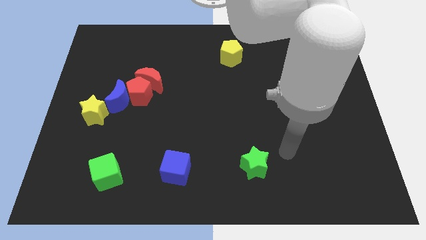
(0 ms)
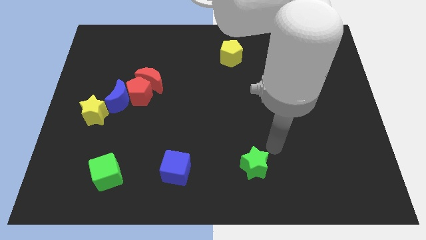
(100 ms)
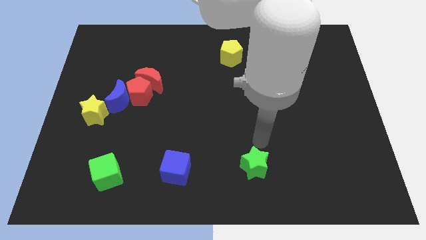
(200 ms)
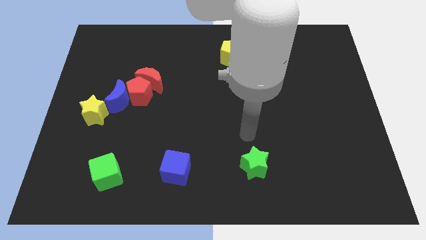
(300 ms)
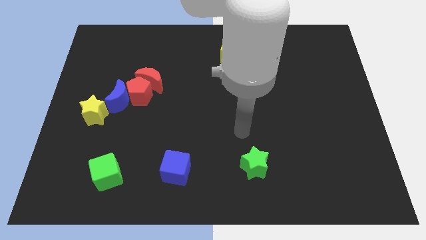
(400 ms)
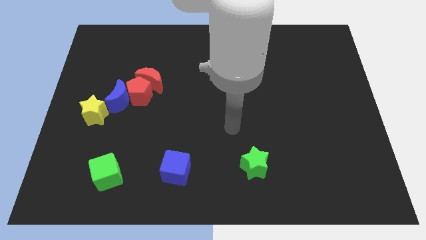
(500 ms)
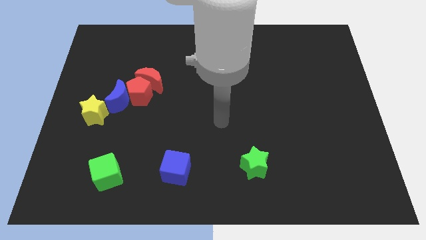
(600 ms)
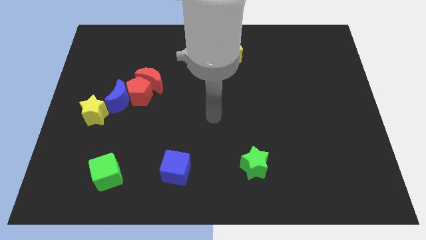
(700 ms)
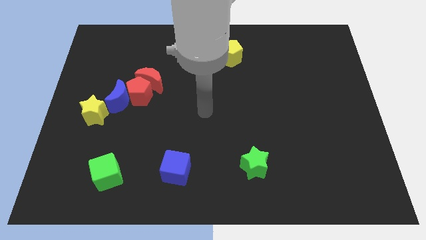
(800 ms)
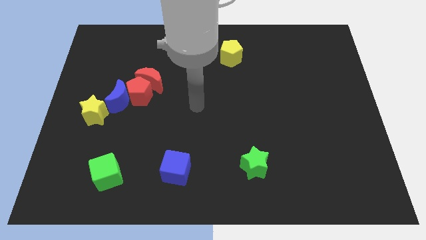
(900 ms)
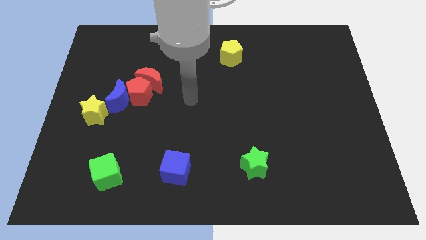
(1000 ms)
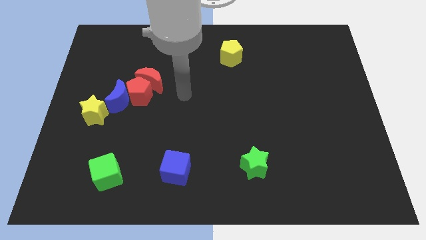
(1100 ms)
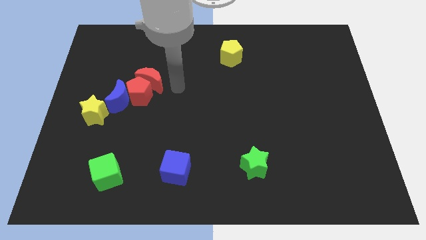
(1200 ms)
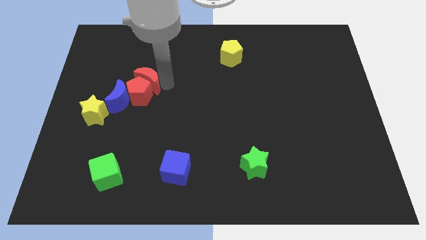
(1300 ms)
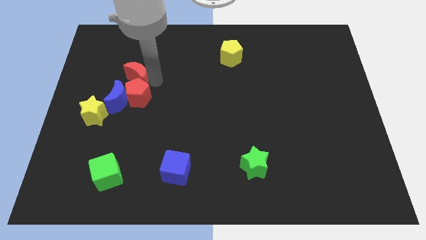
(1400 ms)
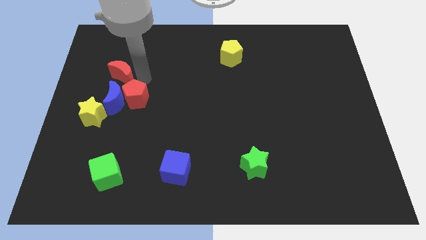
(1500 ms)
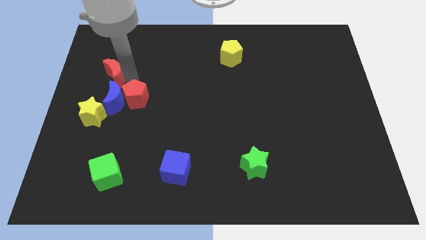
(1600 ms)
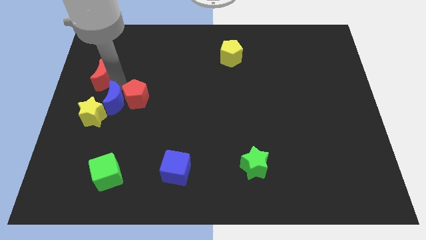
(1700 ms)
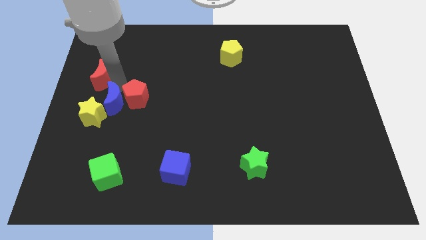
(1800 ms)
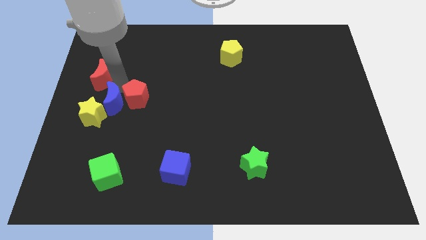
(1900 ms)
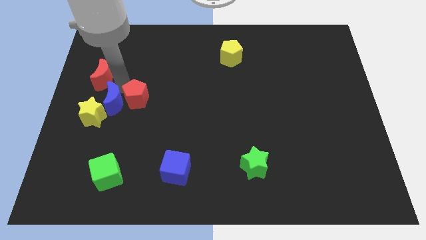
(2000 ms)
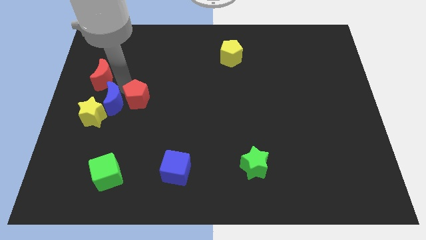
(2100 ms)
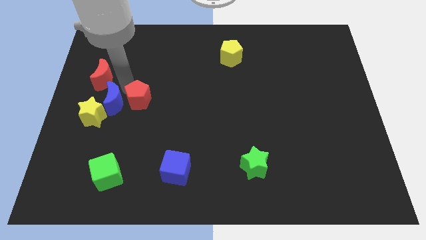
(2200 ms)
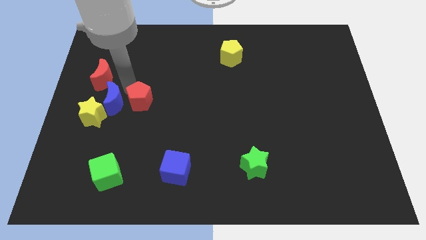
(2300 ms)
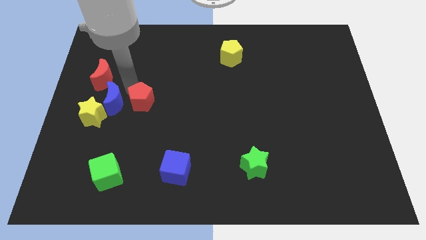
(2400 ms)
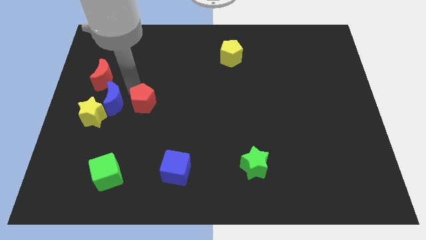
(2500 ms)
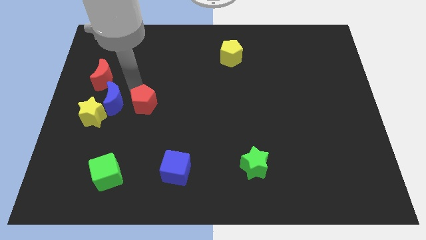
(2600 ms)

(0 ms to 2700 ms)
separate the red pentagon from the blue moon and red moon

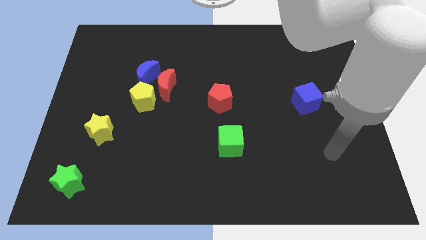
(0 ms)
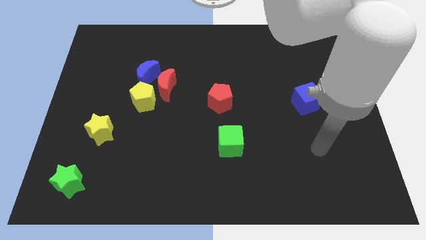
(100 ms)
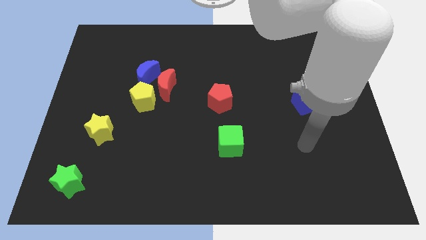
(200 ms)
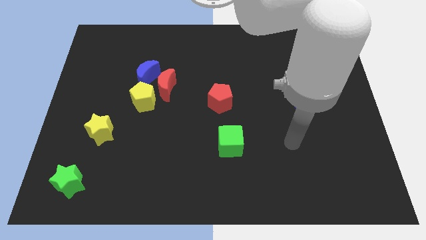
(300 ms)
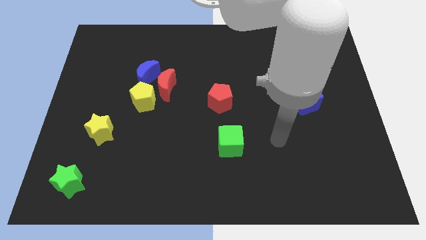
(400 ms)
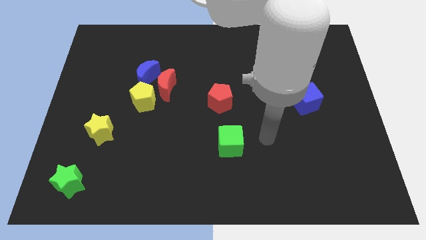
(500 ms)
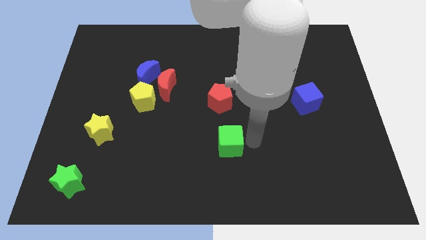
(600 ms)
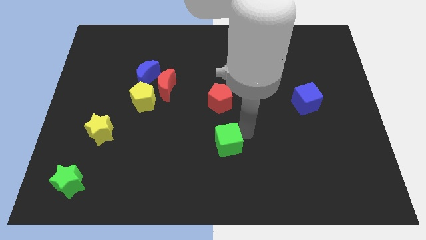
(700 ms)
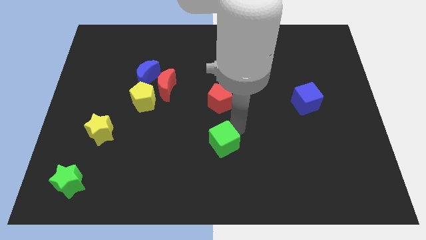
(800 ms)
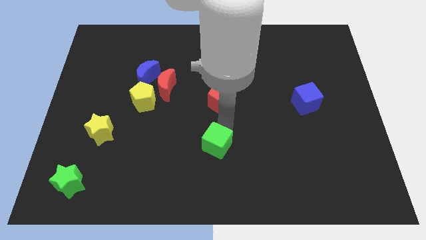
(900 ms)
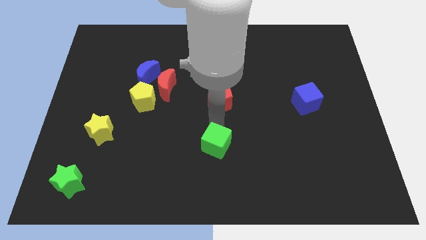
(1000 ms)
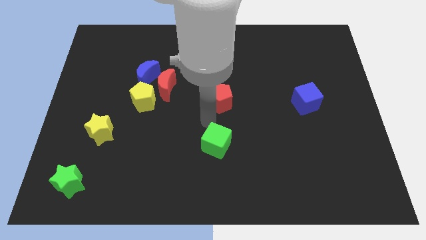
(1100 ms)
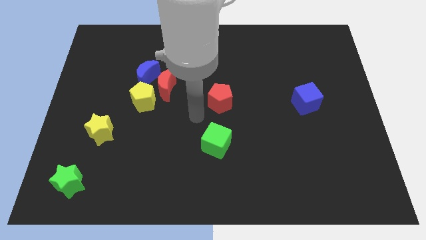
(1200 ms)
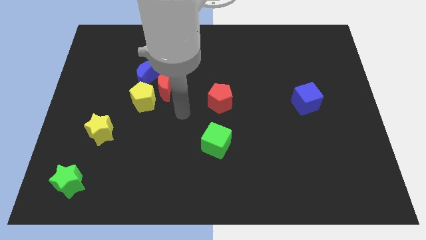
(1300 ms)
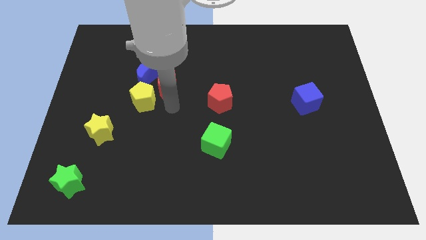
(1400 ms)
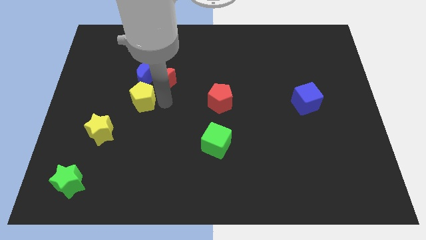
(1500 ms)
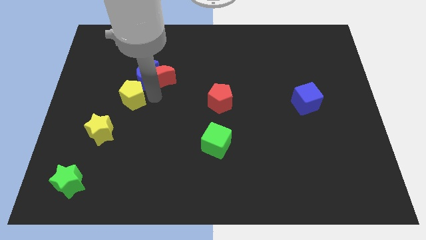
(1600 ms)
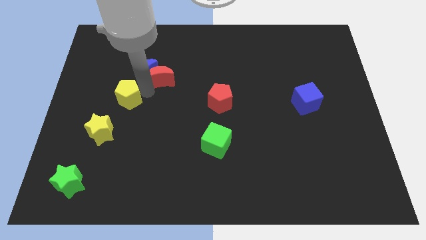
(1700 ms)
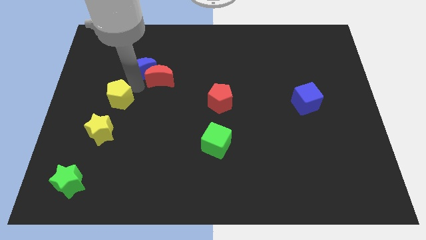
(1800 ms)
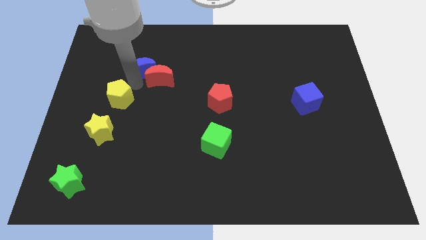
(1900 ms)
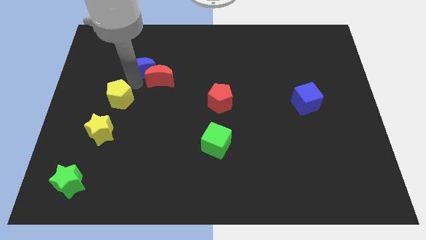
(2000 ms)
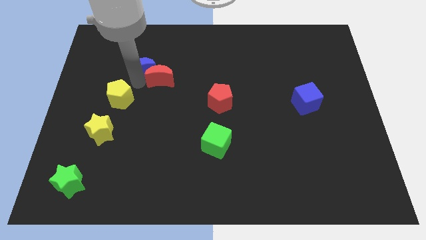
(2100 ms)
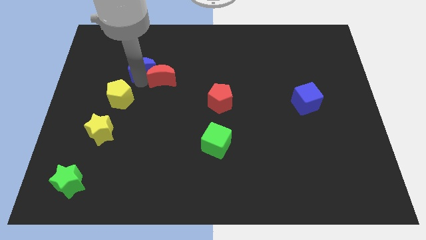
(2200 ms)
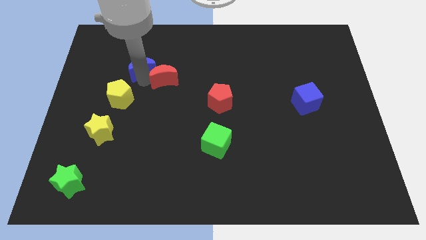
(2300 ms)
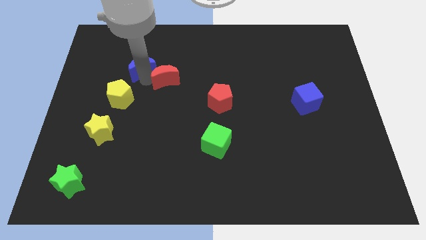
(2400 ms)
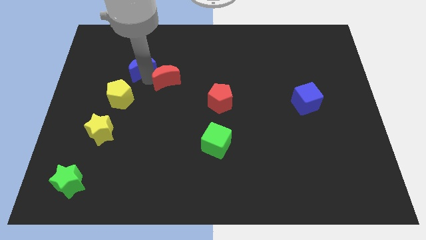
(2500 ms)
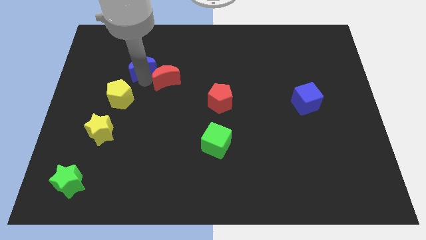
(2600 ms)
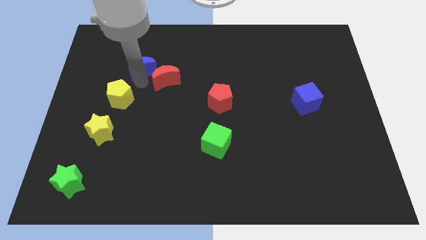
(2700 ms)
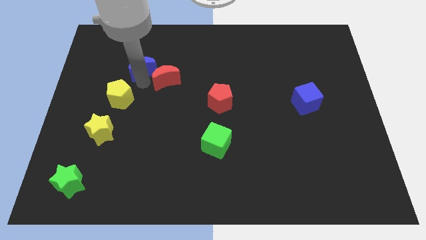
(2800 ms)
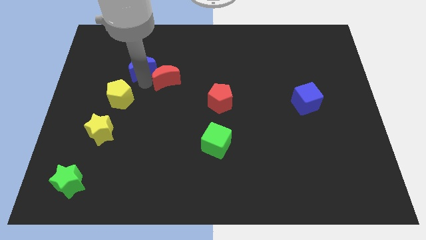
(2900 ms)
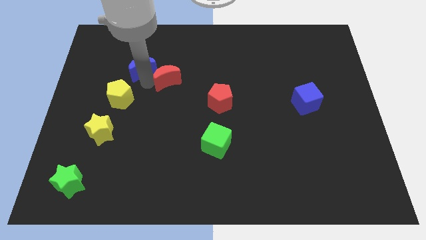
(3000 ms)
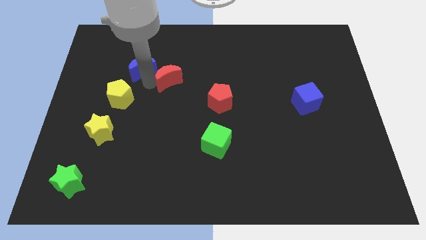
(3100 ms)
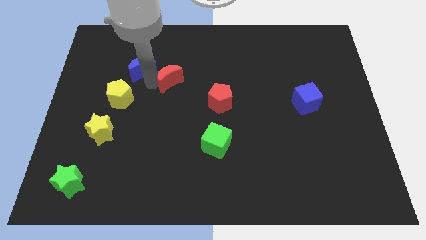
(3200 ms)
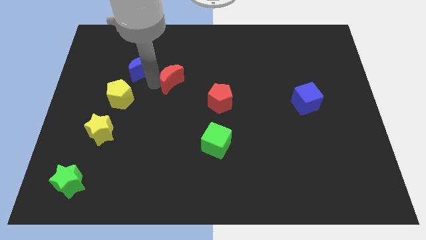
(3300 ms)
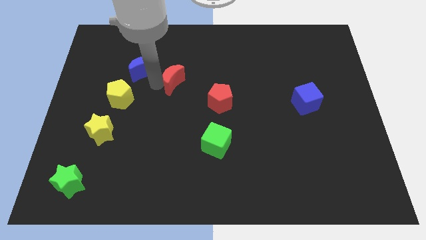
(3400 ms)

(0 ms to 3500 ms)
separate the red moon from the blue moon and yellow pentagon

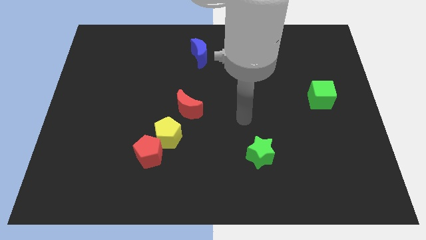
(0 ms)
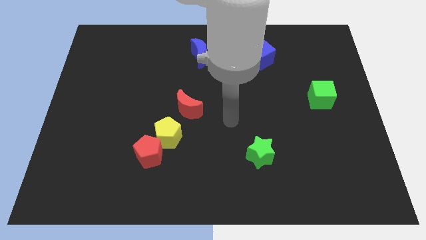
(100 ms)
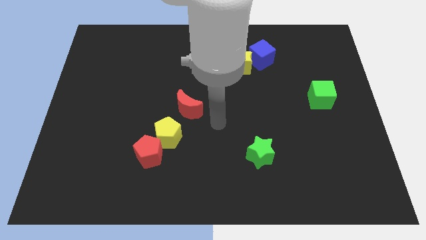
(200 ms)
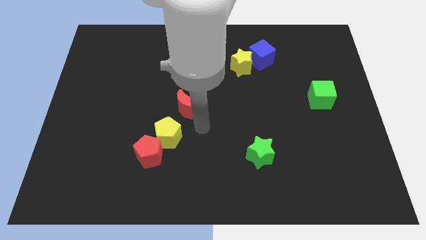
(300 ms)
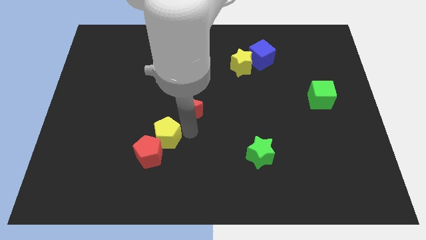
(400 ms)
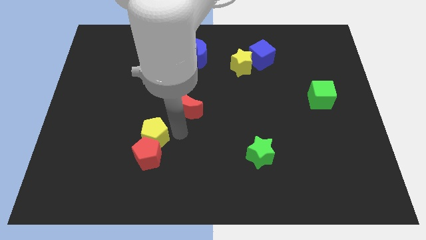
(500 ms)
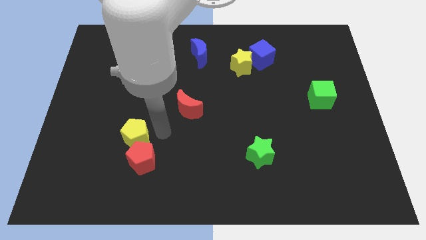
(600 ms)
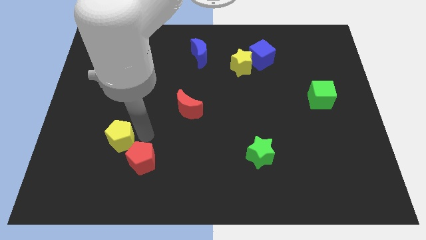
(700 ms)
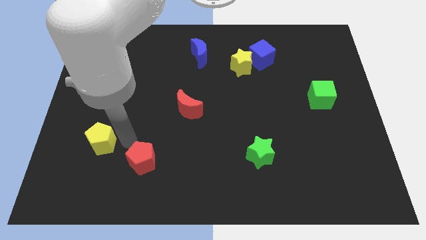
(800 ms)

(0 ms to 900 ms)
pull the red pentagon apart from the yellow pentagon

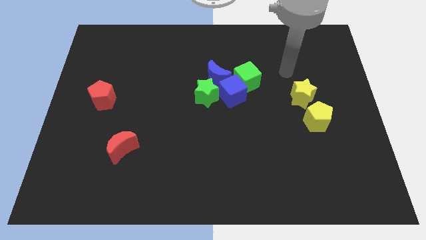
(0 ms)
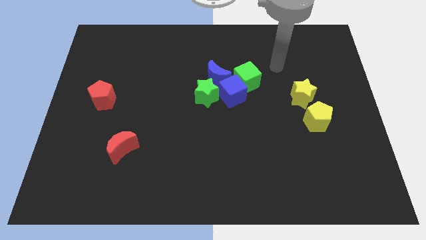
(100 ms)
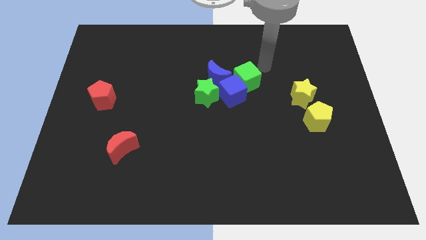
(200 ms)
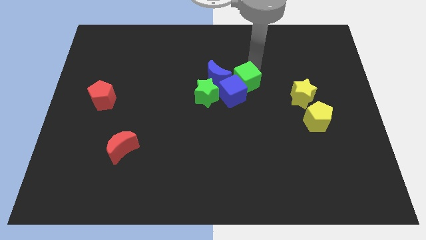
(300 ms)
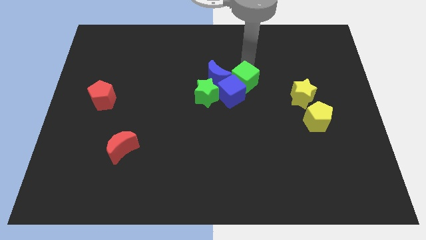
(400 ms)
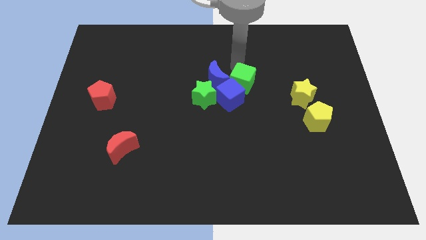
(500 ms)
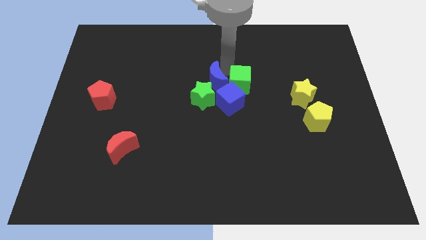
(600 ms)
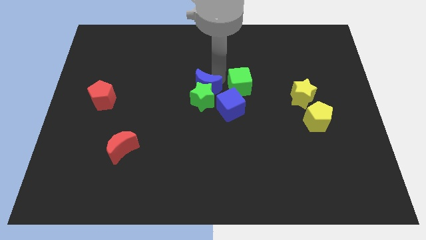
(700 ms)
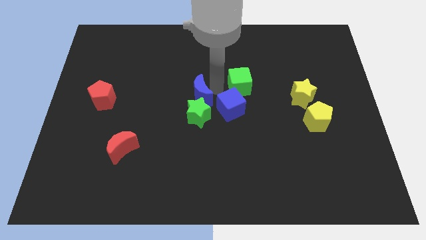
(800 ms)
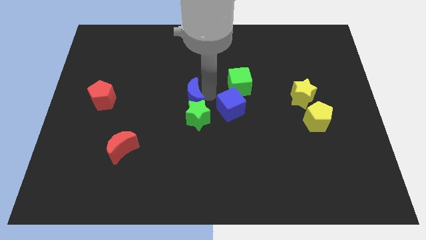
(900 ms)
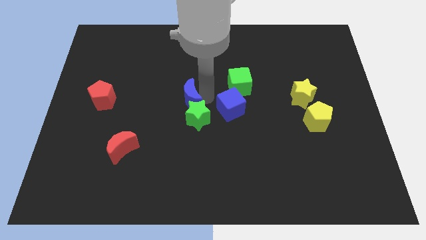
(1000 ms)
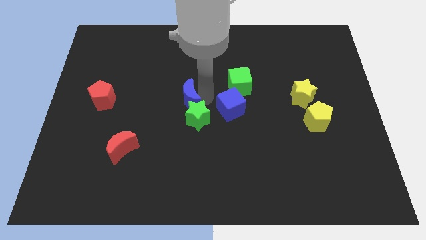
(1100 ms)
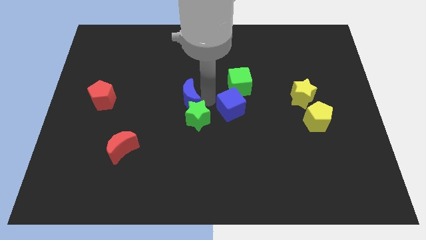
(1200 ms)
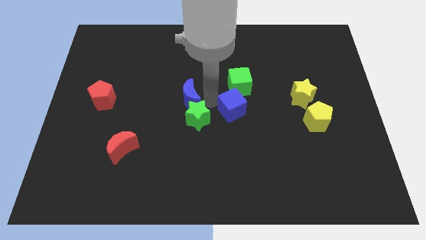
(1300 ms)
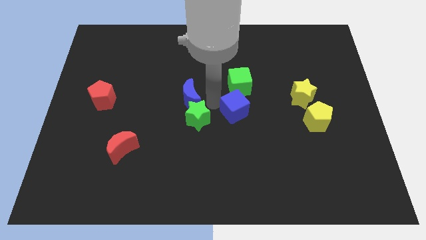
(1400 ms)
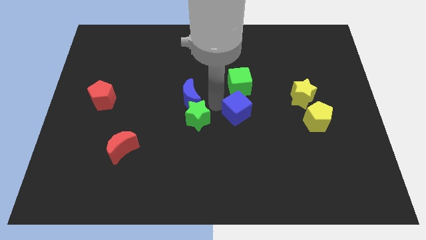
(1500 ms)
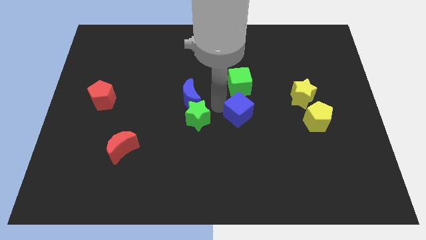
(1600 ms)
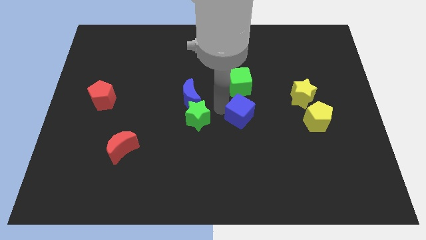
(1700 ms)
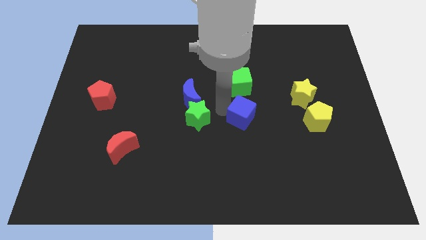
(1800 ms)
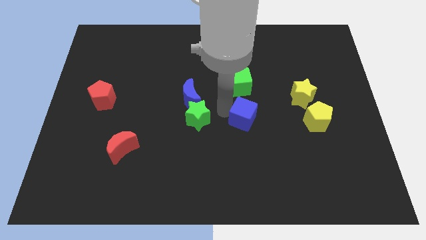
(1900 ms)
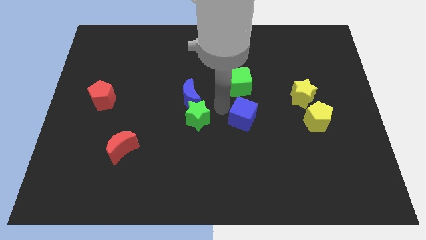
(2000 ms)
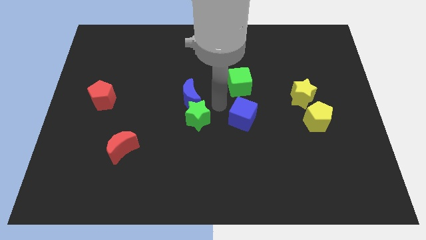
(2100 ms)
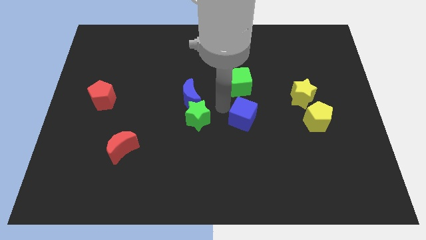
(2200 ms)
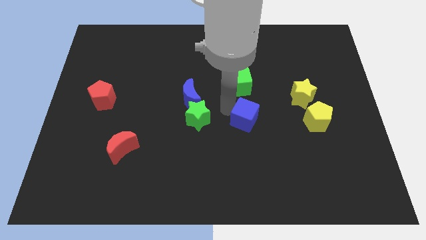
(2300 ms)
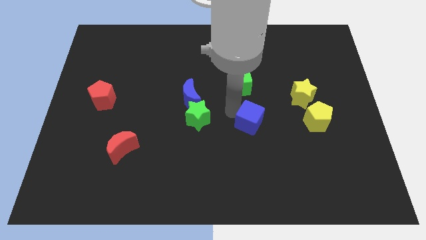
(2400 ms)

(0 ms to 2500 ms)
separate the blue cube from the clump

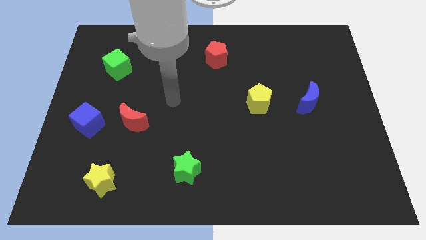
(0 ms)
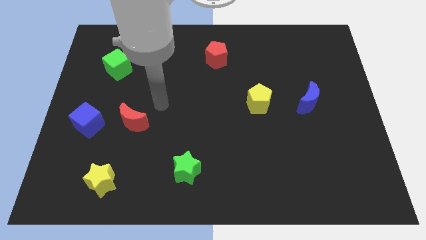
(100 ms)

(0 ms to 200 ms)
move the red moon away from the blue cube
